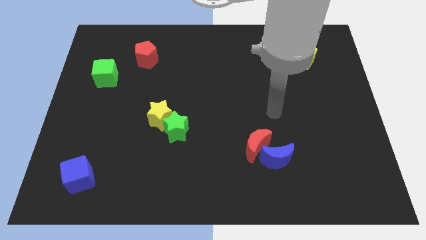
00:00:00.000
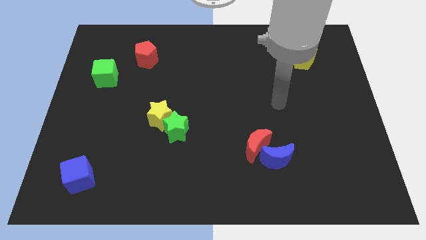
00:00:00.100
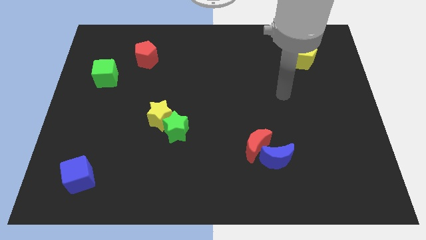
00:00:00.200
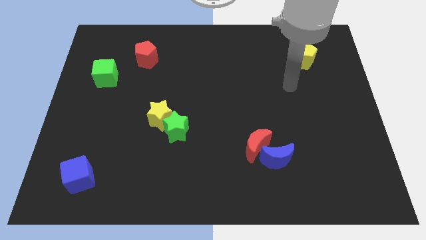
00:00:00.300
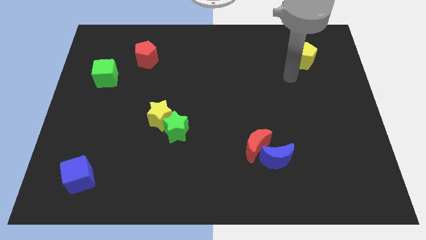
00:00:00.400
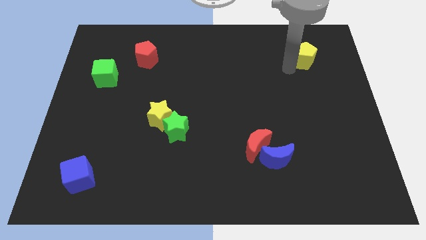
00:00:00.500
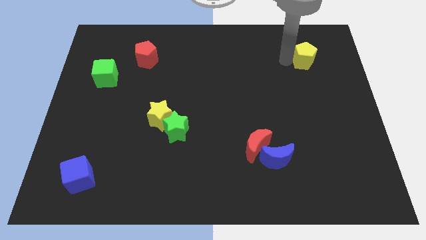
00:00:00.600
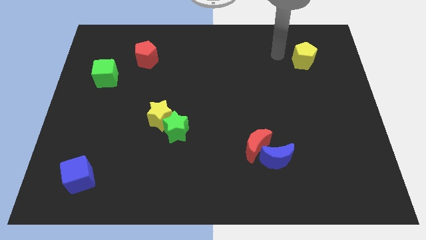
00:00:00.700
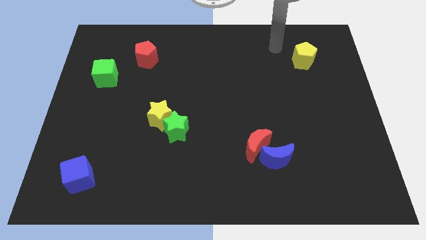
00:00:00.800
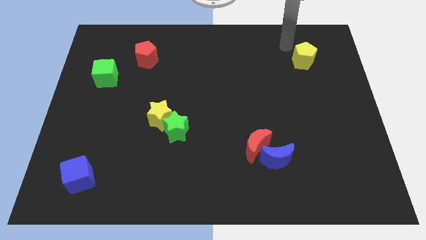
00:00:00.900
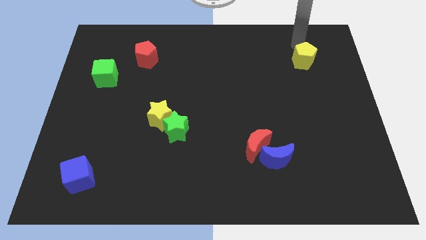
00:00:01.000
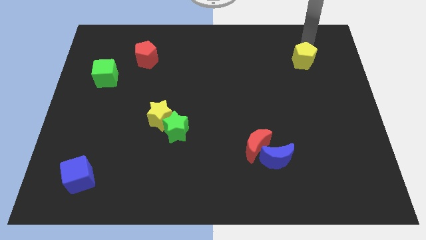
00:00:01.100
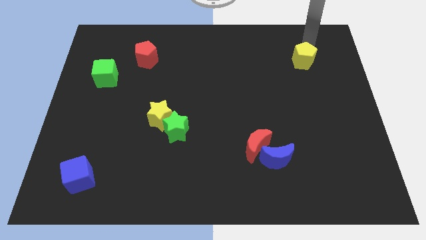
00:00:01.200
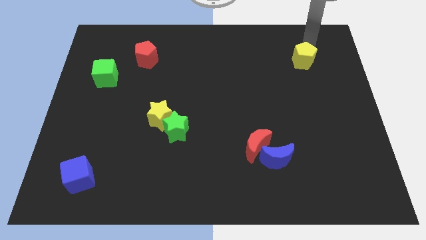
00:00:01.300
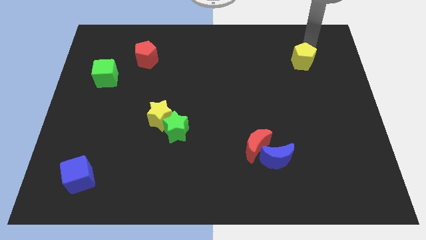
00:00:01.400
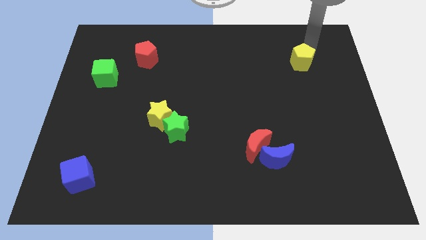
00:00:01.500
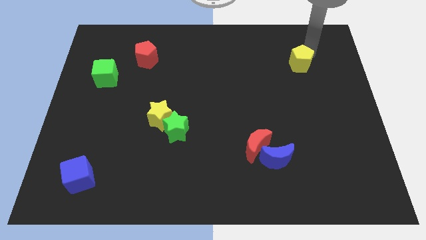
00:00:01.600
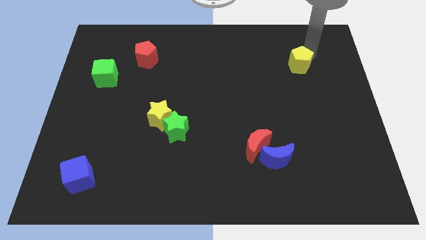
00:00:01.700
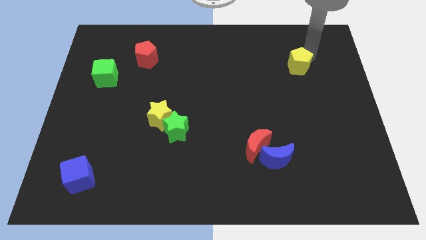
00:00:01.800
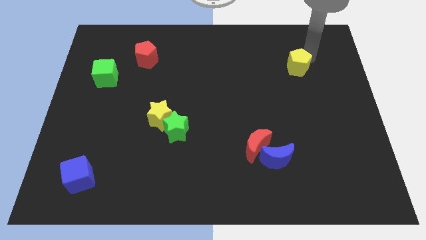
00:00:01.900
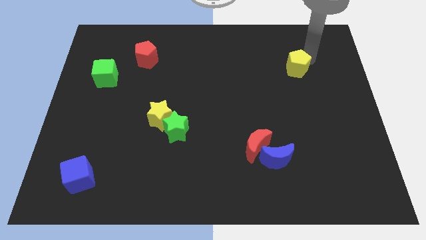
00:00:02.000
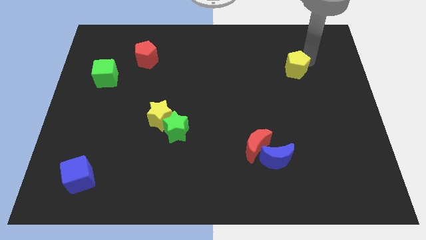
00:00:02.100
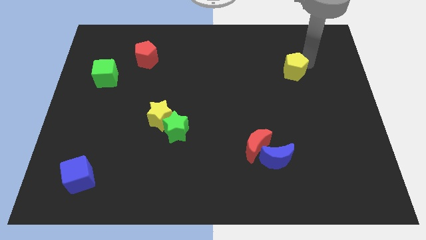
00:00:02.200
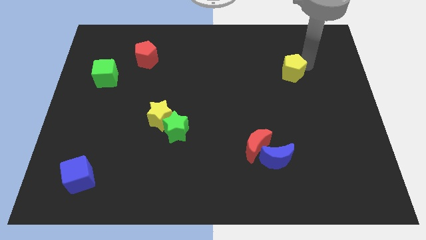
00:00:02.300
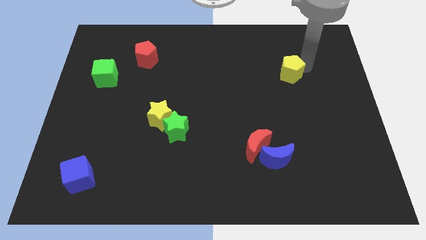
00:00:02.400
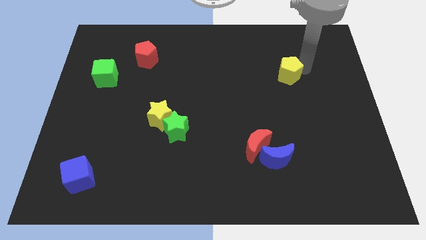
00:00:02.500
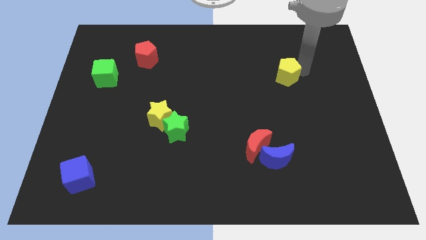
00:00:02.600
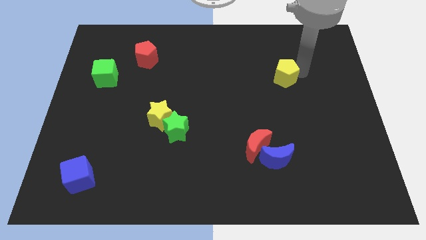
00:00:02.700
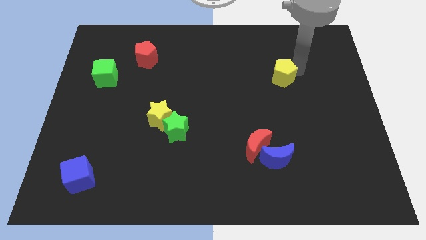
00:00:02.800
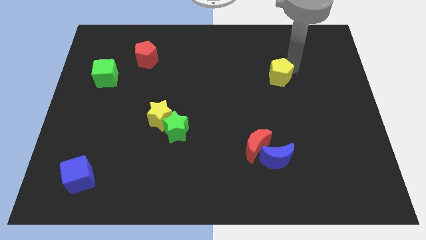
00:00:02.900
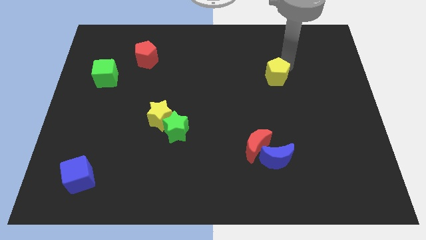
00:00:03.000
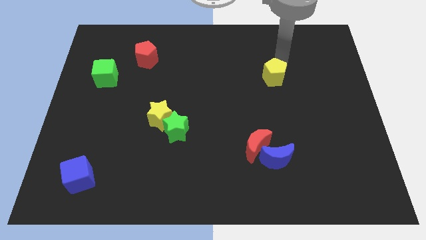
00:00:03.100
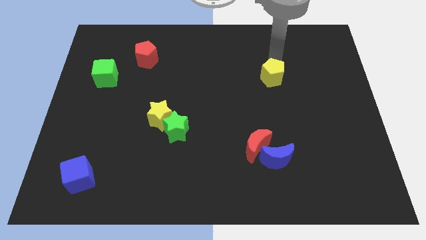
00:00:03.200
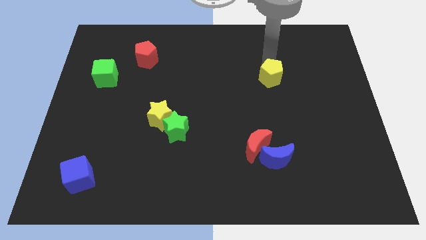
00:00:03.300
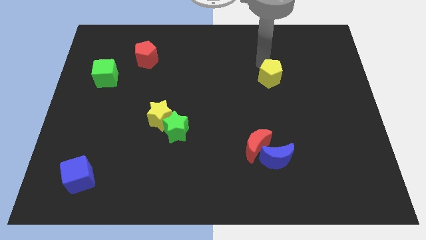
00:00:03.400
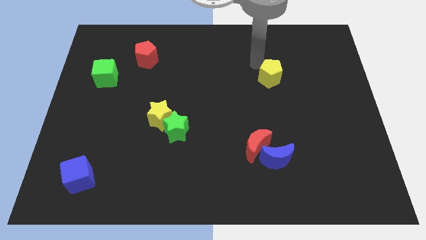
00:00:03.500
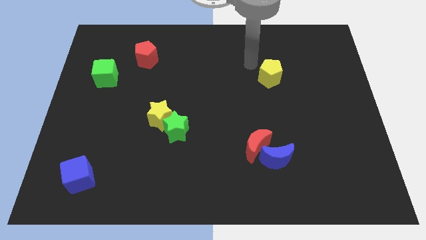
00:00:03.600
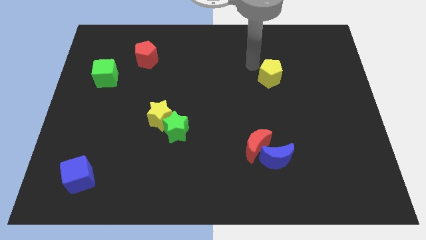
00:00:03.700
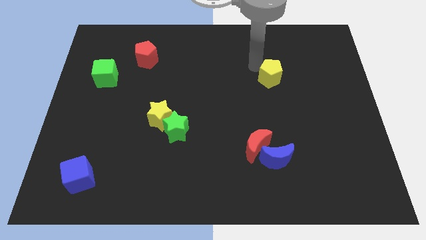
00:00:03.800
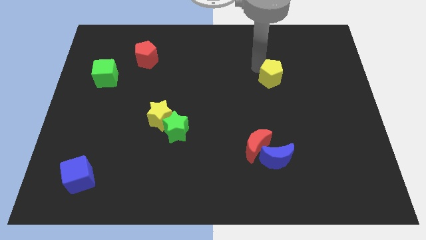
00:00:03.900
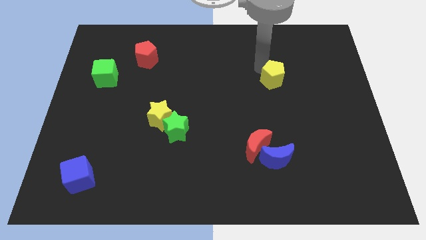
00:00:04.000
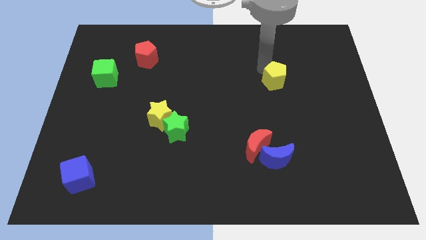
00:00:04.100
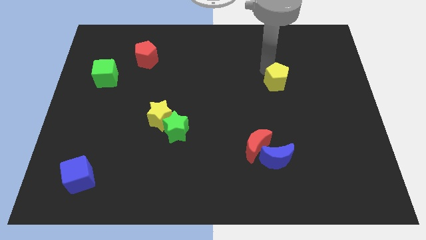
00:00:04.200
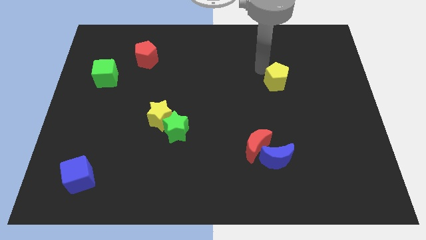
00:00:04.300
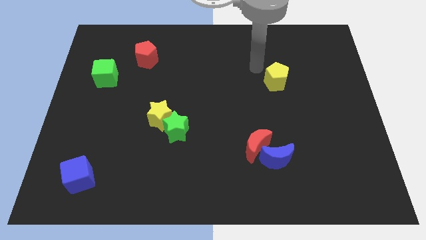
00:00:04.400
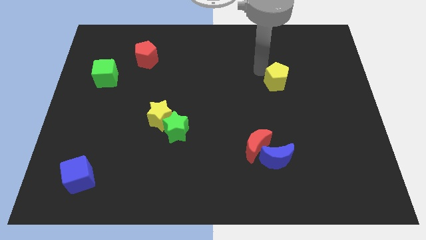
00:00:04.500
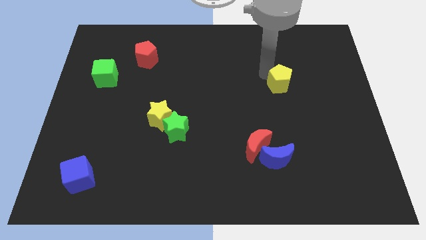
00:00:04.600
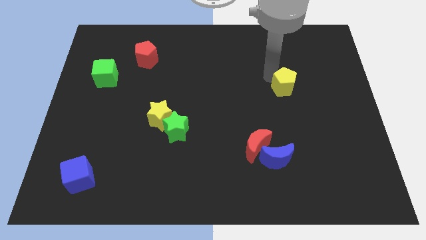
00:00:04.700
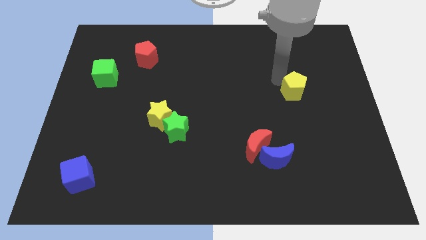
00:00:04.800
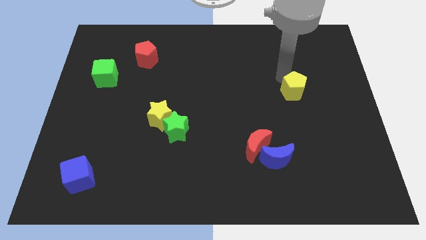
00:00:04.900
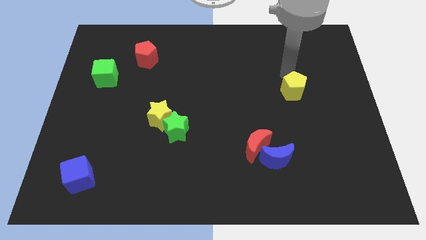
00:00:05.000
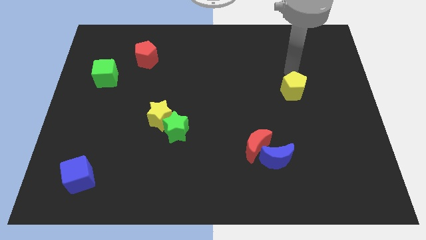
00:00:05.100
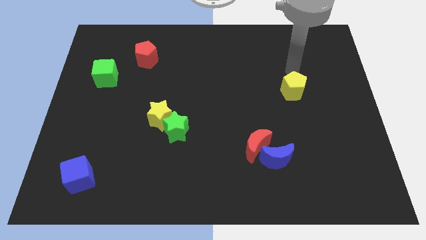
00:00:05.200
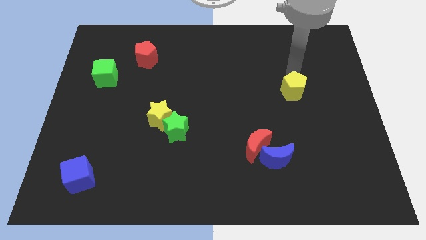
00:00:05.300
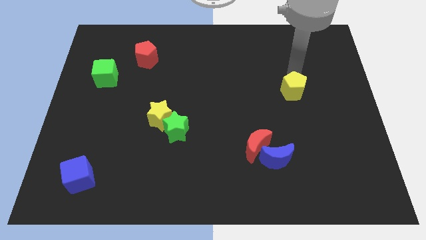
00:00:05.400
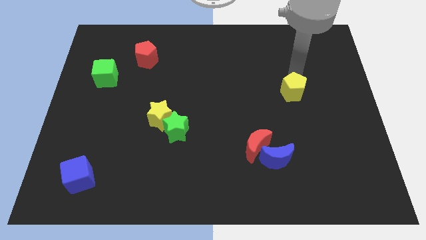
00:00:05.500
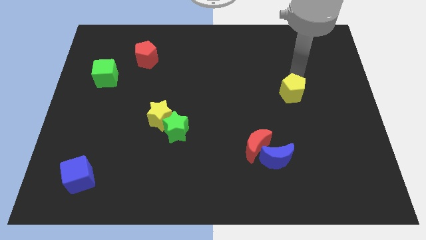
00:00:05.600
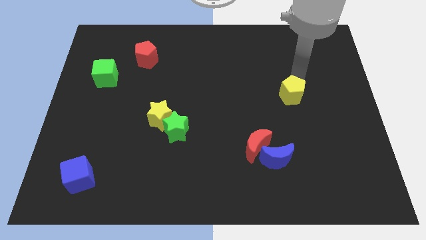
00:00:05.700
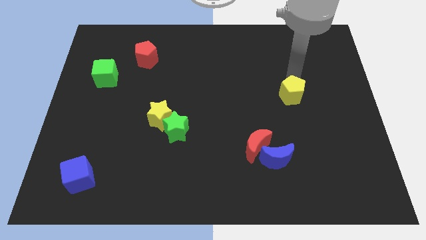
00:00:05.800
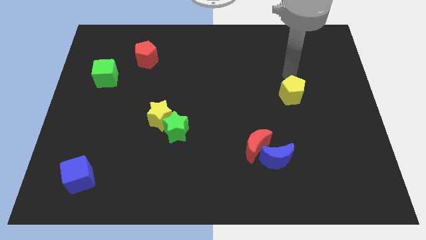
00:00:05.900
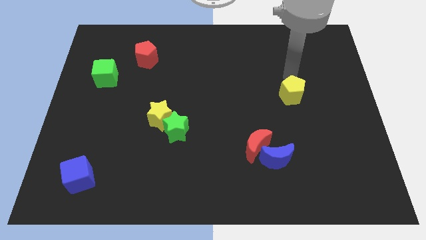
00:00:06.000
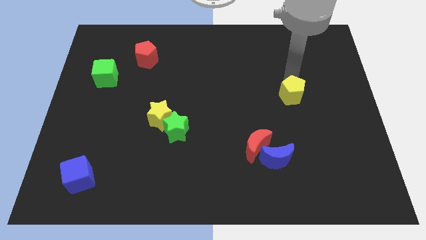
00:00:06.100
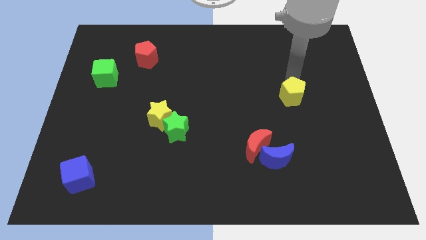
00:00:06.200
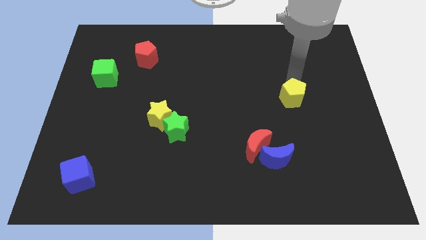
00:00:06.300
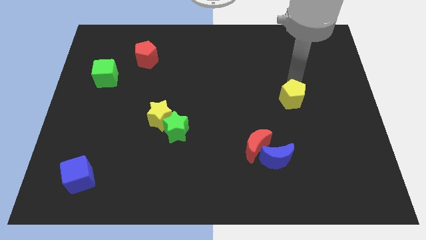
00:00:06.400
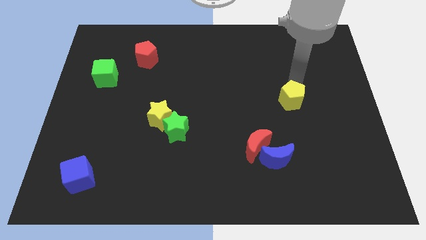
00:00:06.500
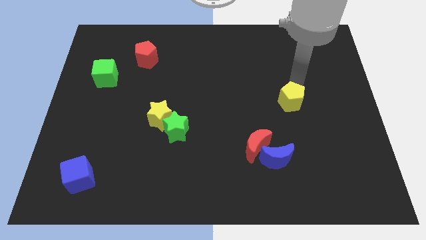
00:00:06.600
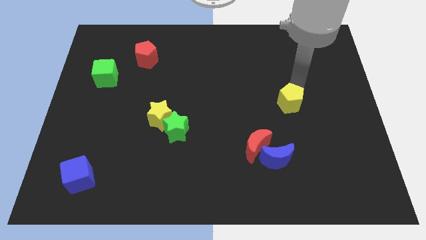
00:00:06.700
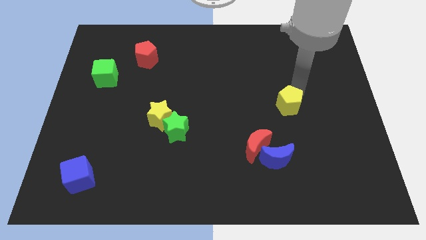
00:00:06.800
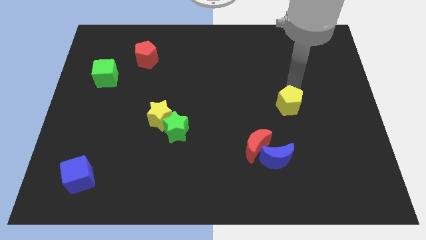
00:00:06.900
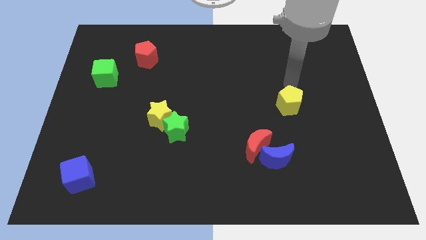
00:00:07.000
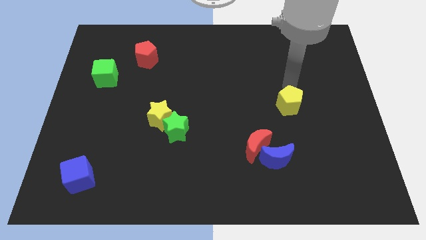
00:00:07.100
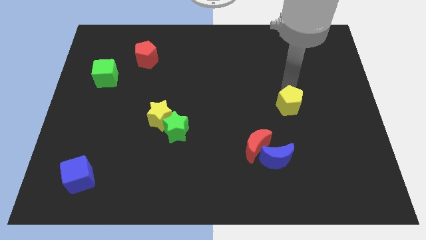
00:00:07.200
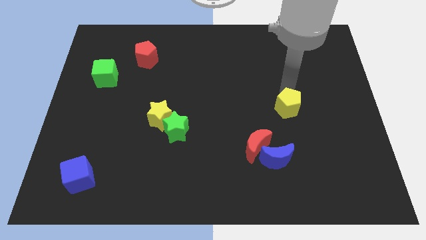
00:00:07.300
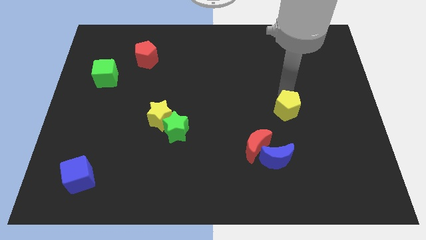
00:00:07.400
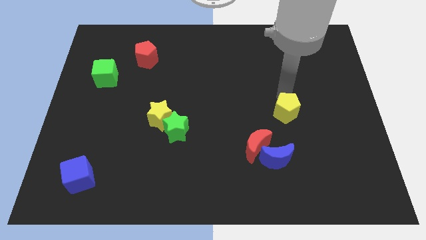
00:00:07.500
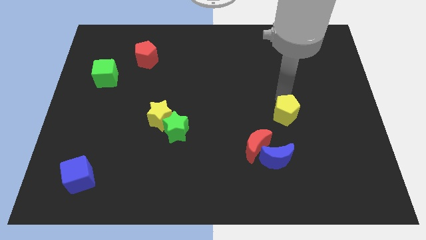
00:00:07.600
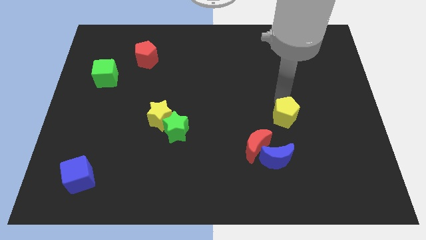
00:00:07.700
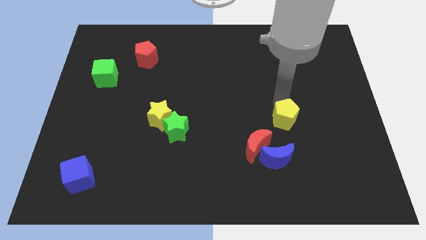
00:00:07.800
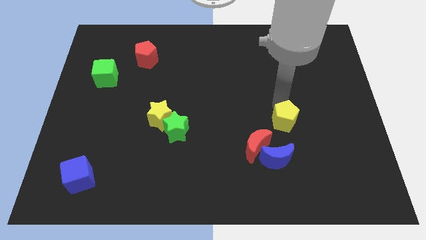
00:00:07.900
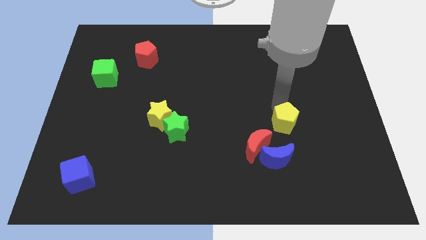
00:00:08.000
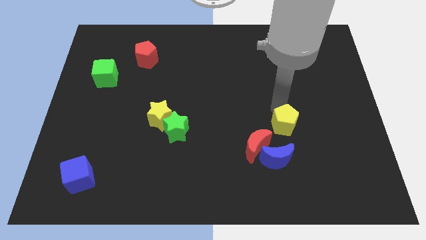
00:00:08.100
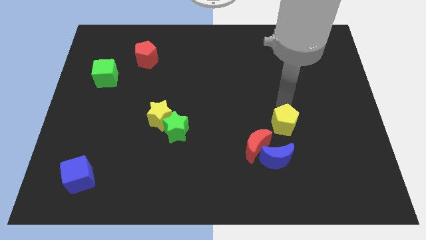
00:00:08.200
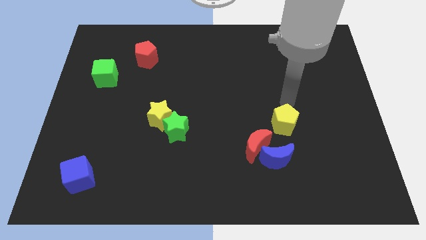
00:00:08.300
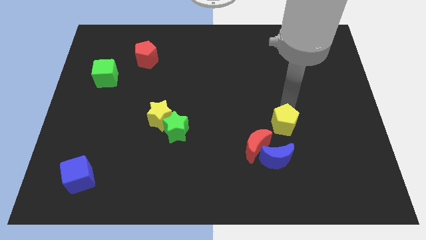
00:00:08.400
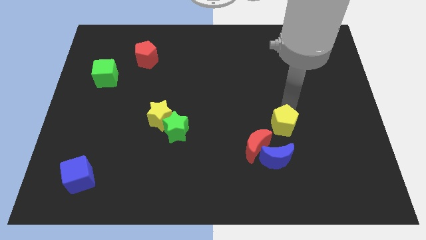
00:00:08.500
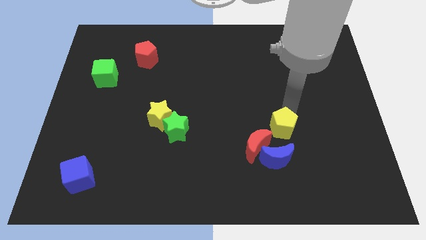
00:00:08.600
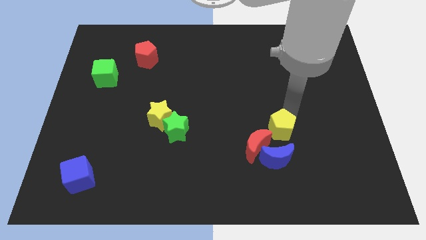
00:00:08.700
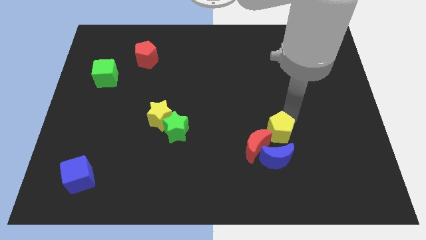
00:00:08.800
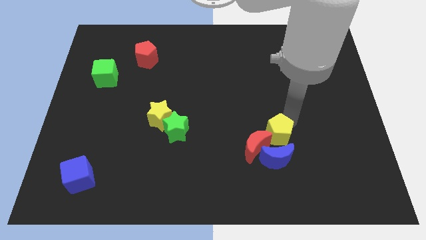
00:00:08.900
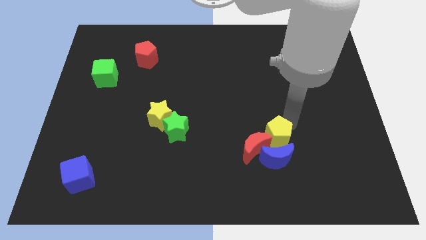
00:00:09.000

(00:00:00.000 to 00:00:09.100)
slide the yellow pentagon towards the blue moon
